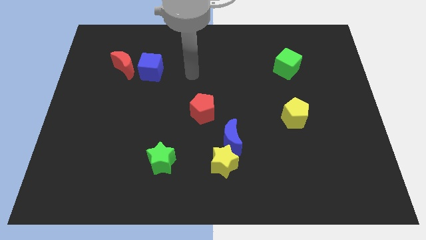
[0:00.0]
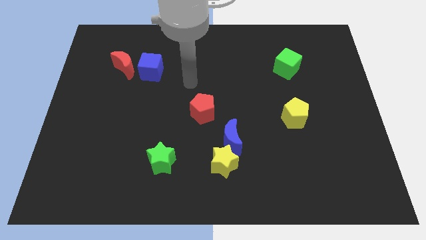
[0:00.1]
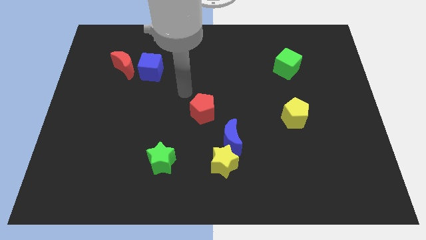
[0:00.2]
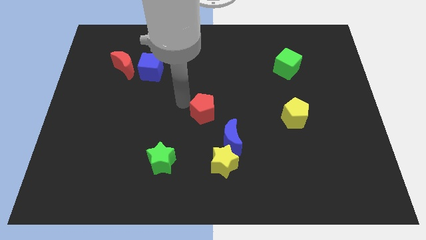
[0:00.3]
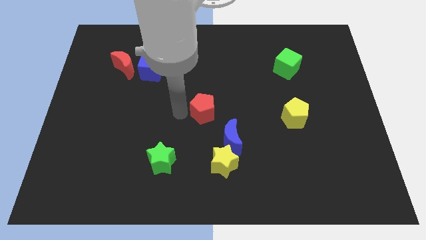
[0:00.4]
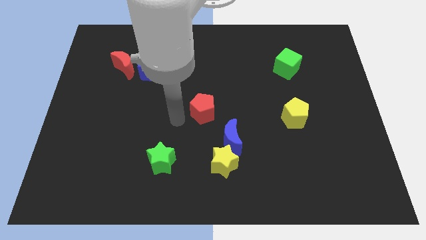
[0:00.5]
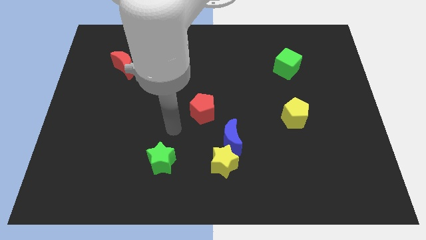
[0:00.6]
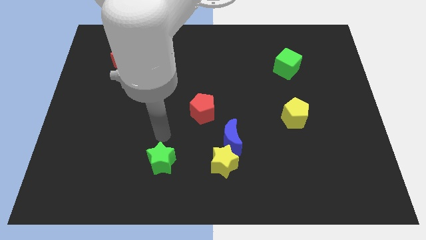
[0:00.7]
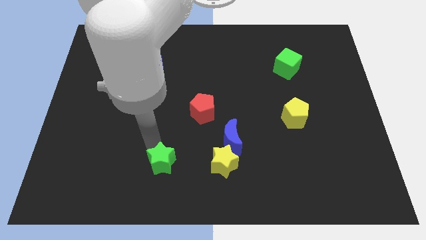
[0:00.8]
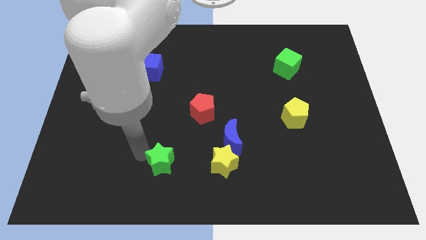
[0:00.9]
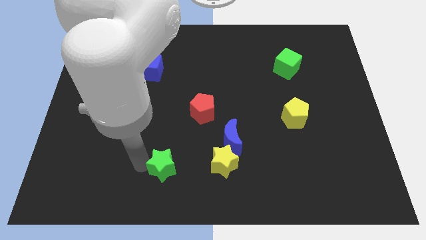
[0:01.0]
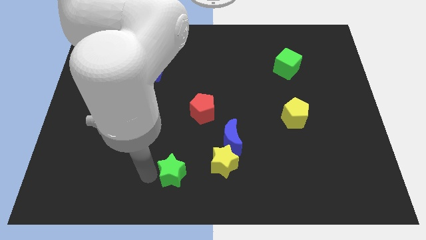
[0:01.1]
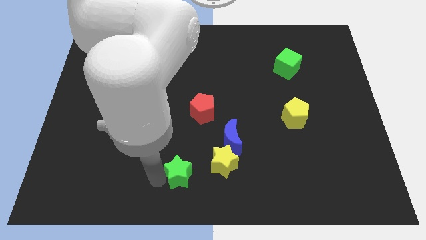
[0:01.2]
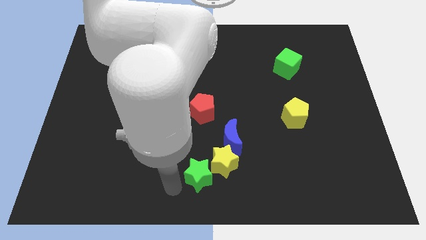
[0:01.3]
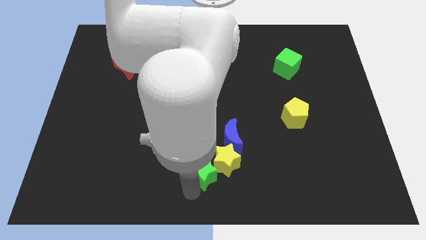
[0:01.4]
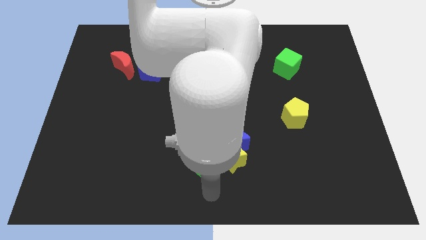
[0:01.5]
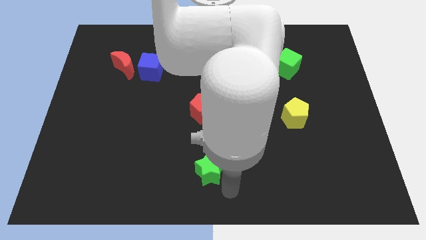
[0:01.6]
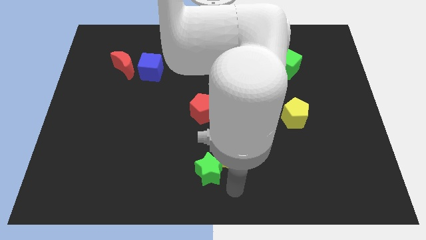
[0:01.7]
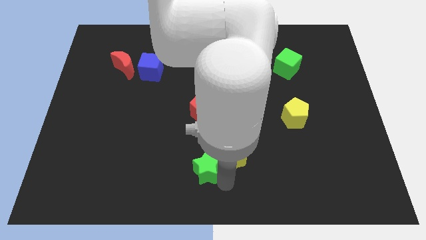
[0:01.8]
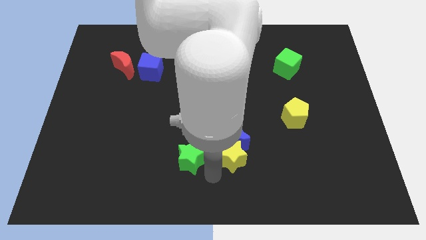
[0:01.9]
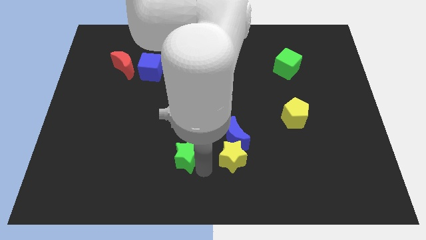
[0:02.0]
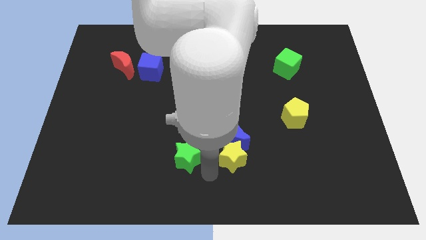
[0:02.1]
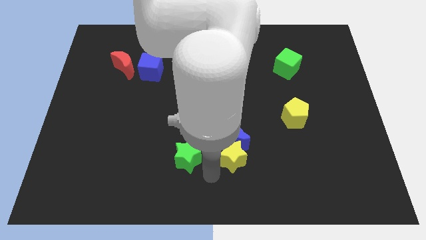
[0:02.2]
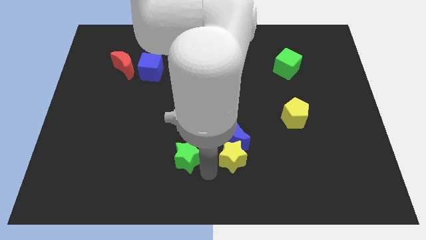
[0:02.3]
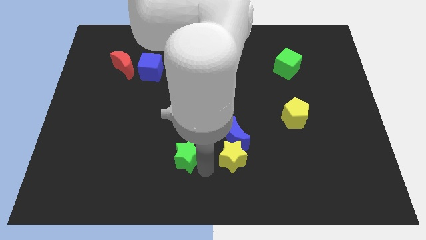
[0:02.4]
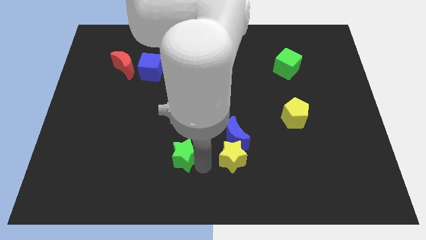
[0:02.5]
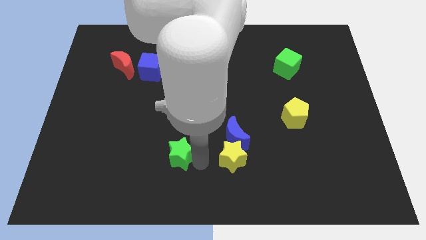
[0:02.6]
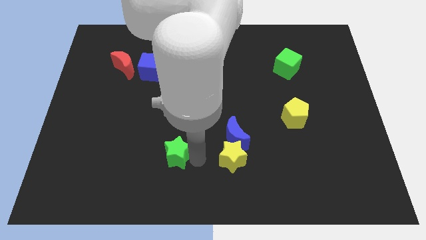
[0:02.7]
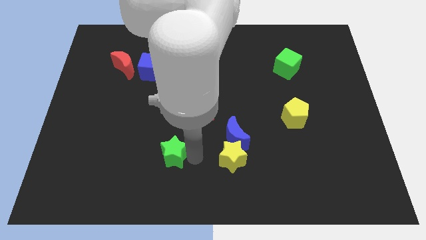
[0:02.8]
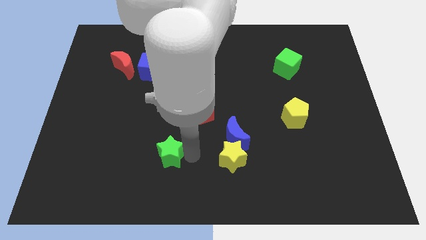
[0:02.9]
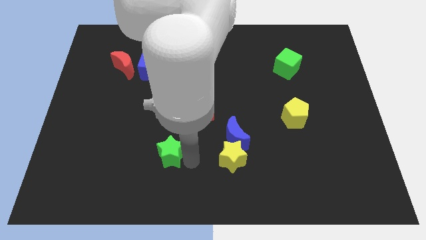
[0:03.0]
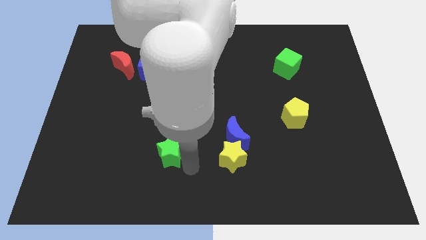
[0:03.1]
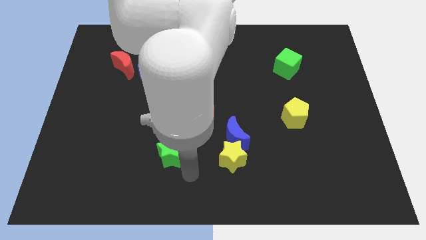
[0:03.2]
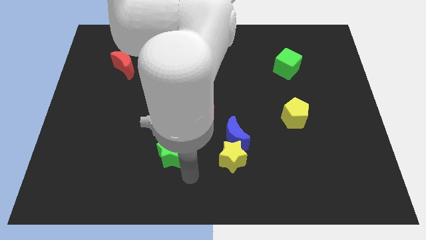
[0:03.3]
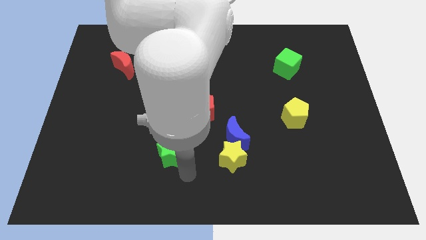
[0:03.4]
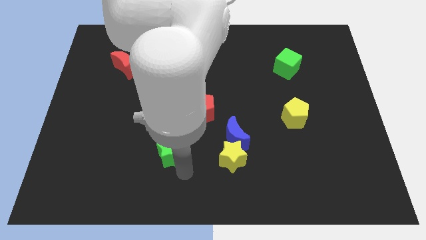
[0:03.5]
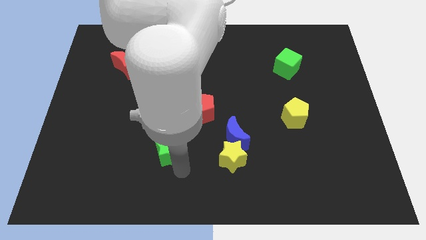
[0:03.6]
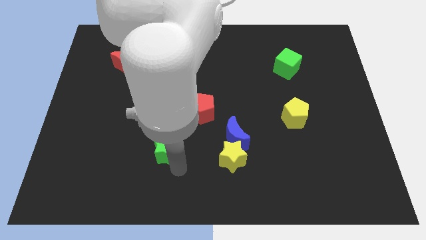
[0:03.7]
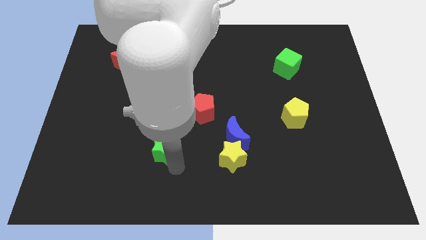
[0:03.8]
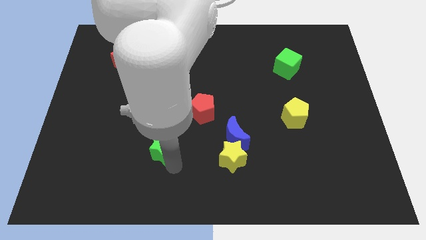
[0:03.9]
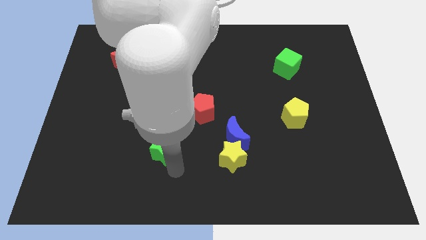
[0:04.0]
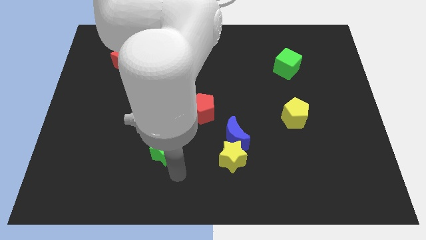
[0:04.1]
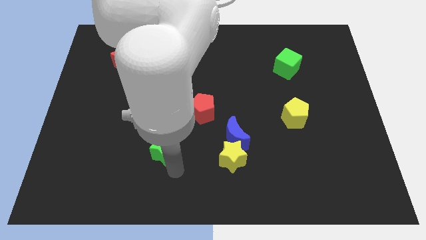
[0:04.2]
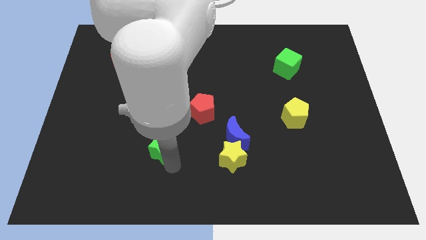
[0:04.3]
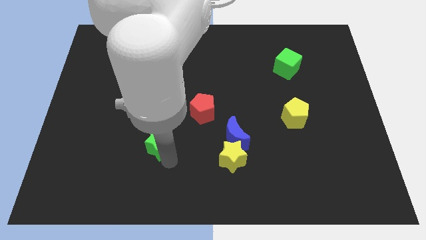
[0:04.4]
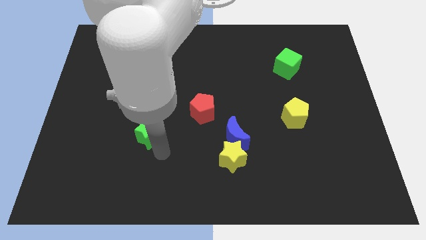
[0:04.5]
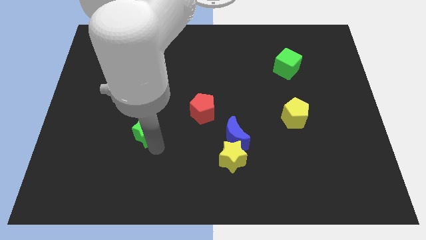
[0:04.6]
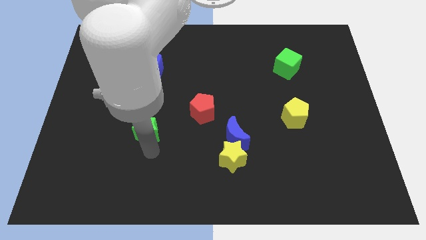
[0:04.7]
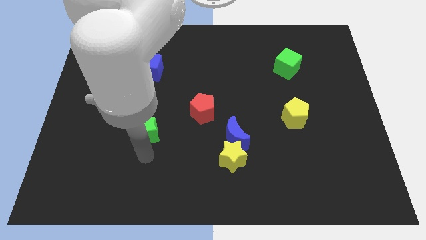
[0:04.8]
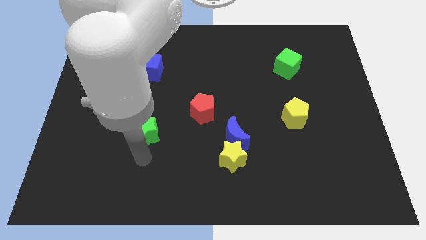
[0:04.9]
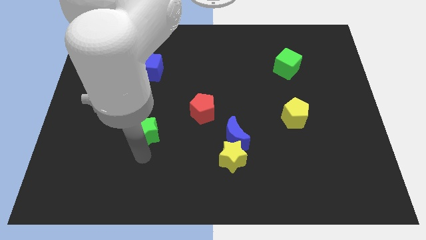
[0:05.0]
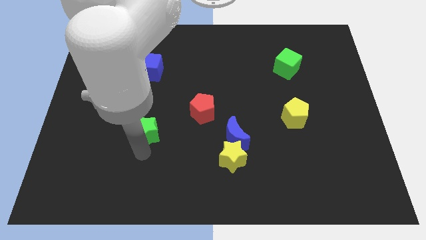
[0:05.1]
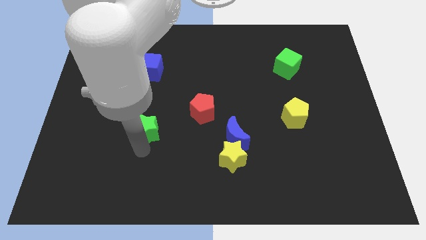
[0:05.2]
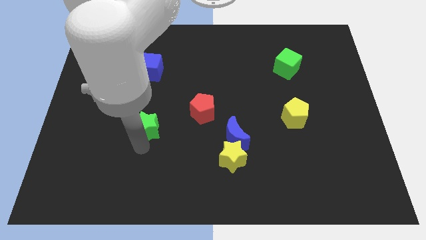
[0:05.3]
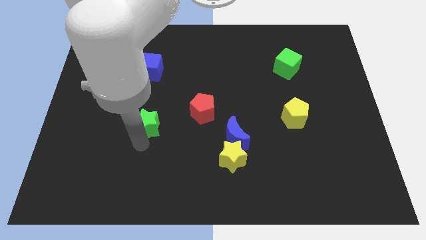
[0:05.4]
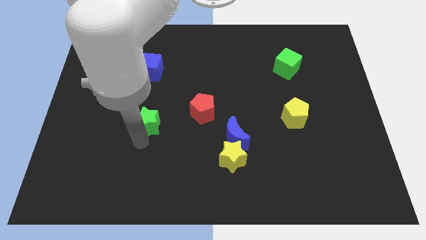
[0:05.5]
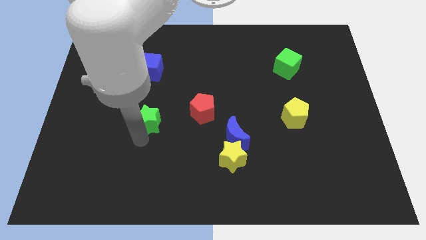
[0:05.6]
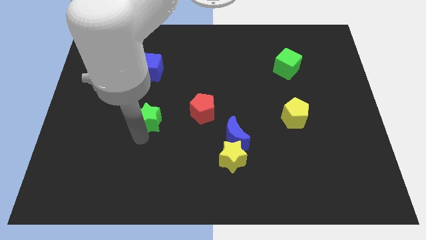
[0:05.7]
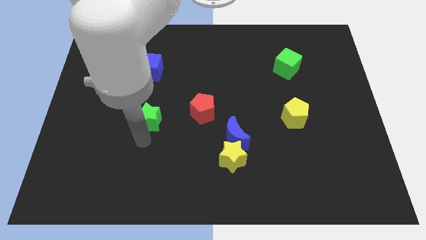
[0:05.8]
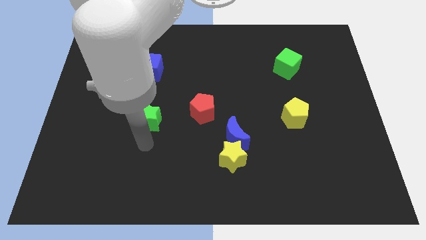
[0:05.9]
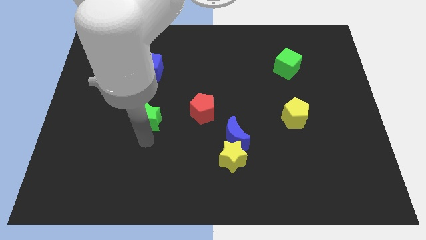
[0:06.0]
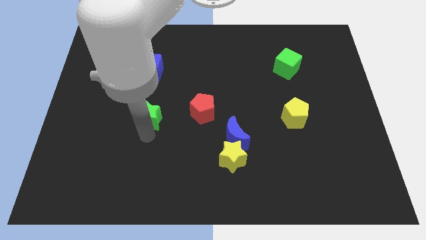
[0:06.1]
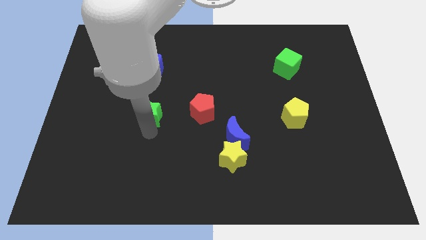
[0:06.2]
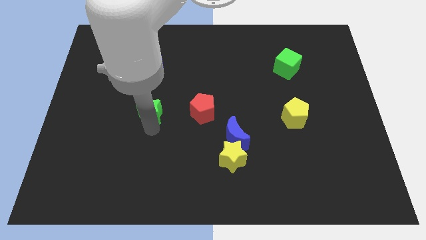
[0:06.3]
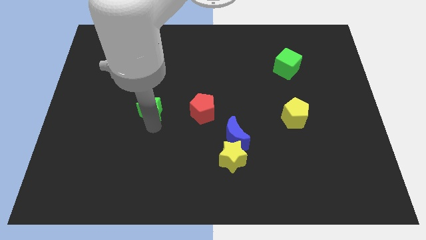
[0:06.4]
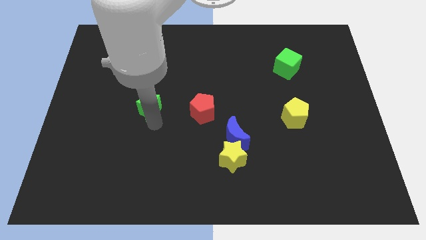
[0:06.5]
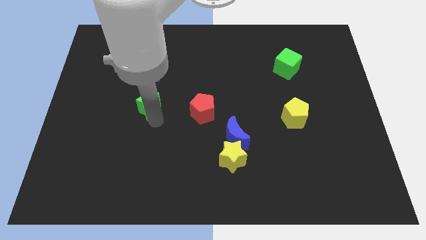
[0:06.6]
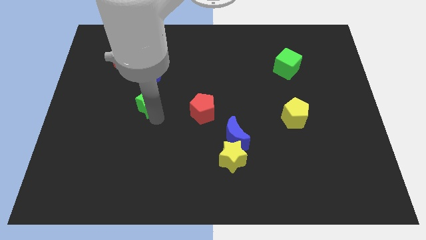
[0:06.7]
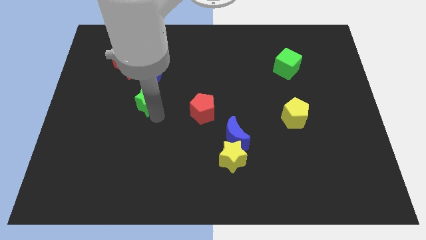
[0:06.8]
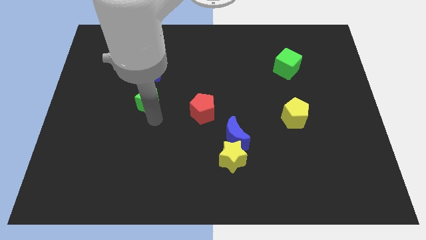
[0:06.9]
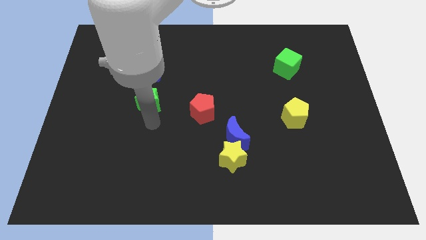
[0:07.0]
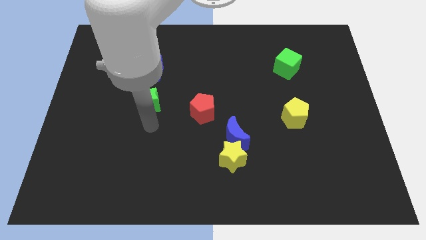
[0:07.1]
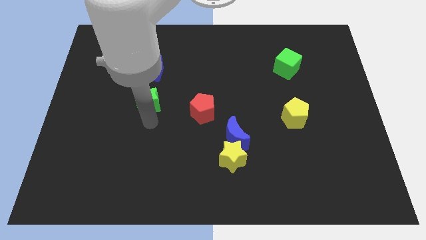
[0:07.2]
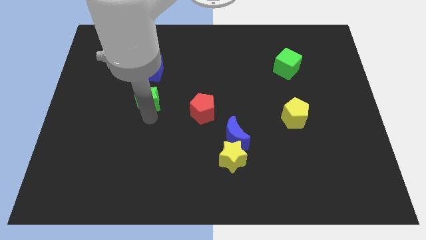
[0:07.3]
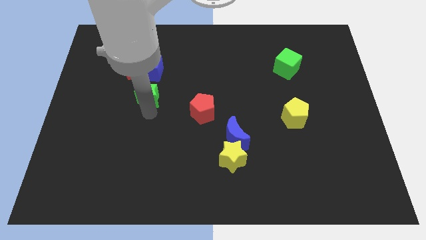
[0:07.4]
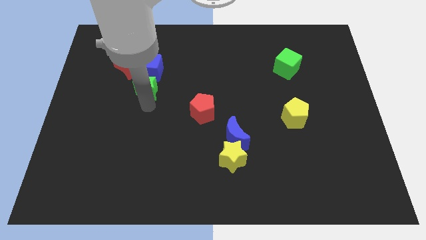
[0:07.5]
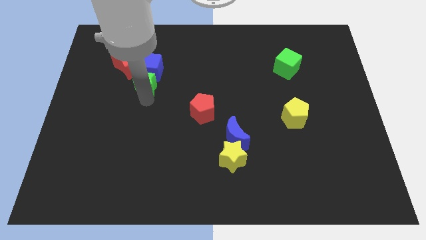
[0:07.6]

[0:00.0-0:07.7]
slide the green star to the blue cube
